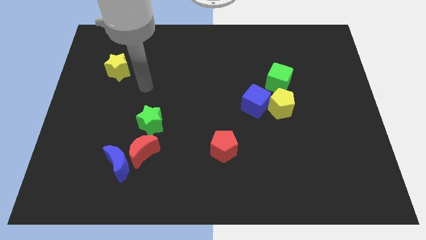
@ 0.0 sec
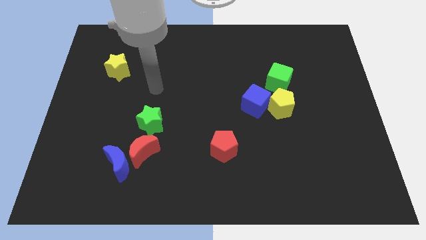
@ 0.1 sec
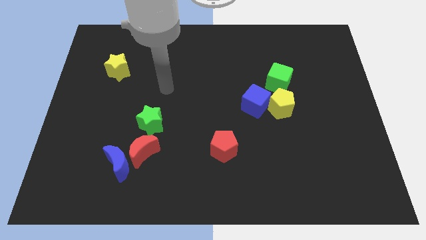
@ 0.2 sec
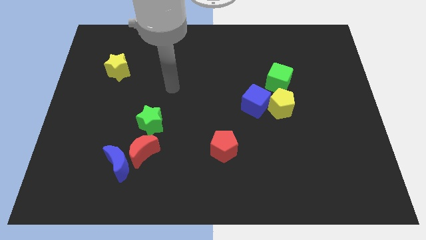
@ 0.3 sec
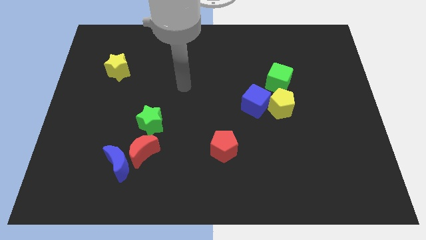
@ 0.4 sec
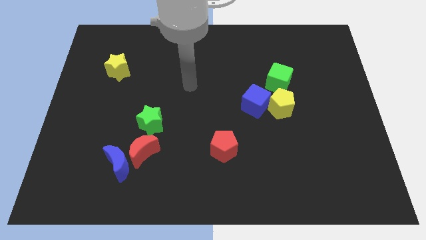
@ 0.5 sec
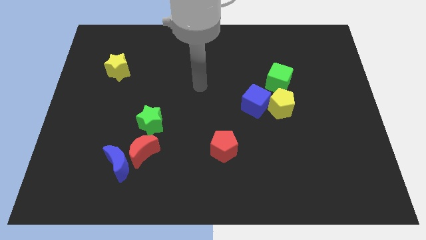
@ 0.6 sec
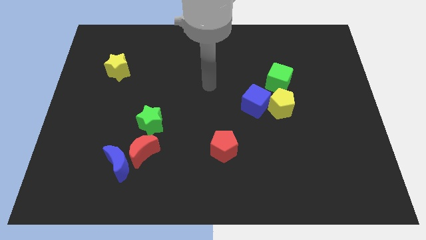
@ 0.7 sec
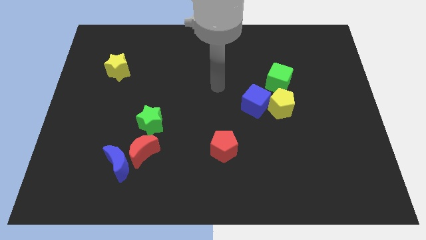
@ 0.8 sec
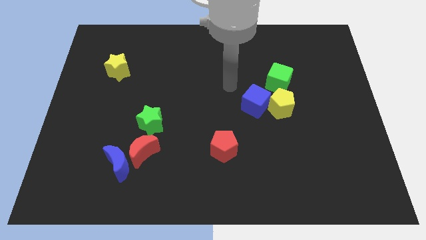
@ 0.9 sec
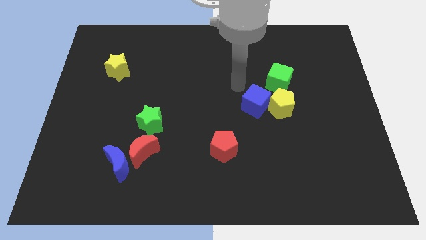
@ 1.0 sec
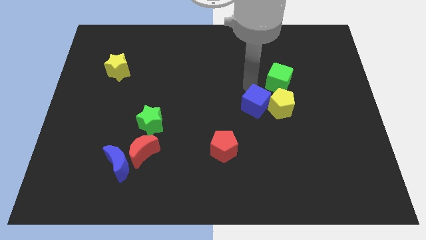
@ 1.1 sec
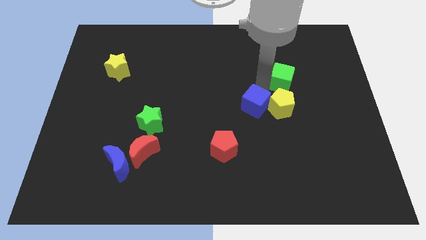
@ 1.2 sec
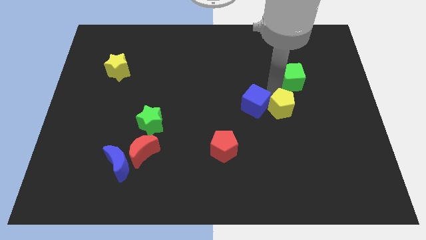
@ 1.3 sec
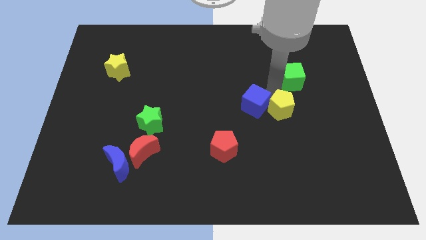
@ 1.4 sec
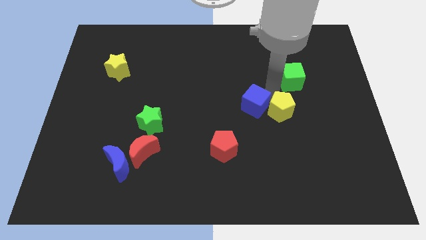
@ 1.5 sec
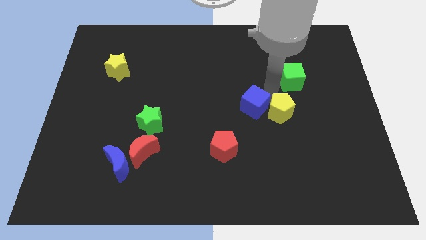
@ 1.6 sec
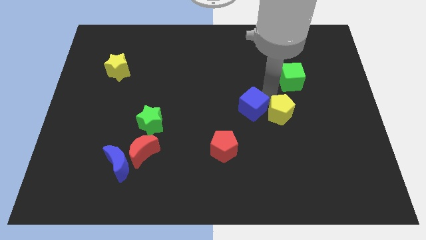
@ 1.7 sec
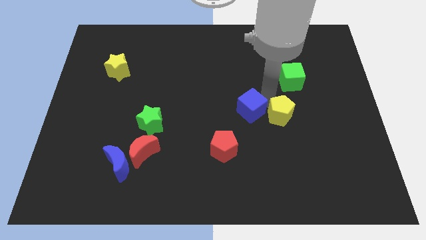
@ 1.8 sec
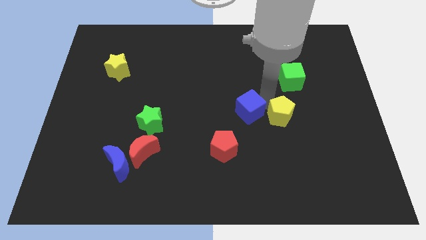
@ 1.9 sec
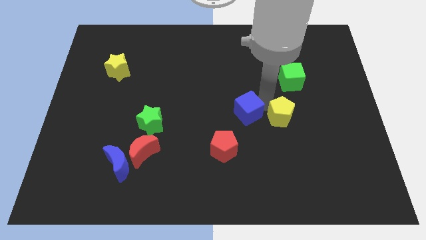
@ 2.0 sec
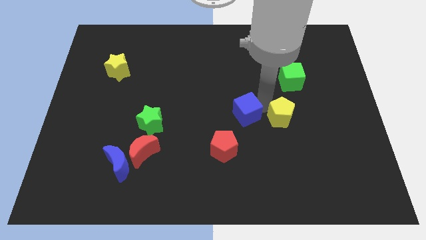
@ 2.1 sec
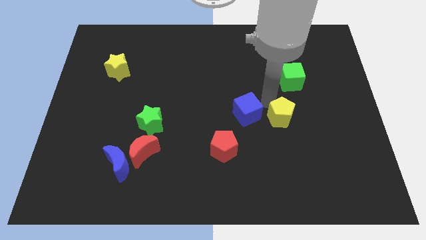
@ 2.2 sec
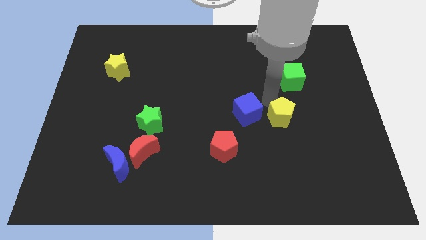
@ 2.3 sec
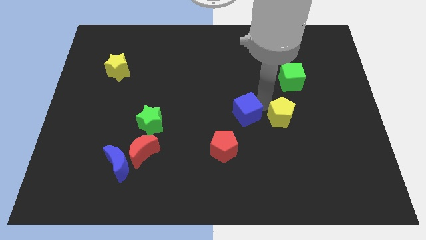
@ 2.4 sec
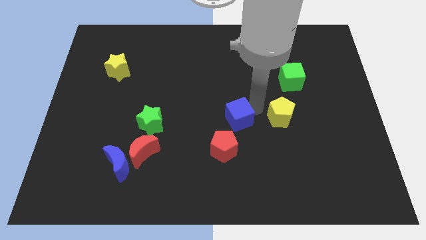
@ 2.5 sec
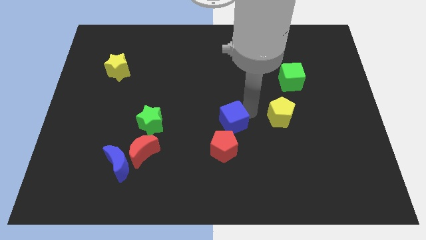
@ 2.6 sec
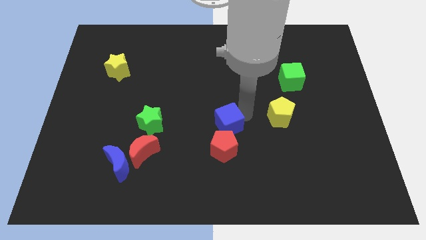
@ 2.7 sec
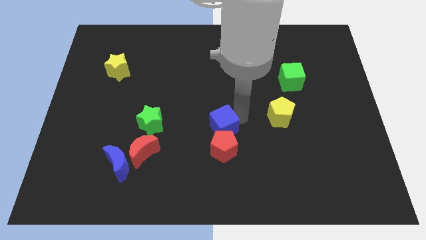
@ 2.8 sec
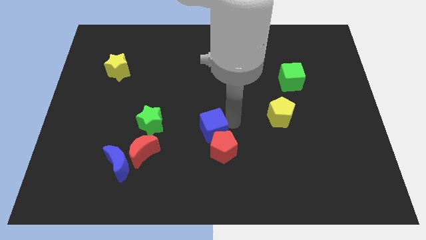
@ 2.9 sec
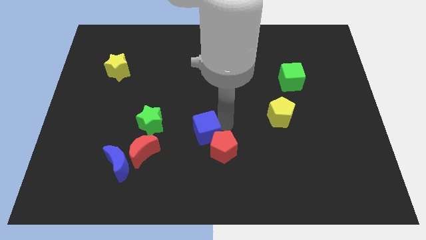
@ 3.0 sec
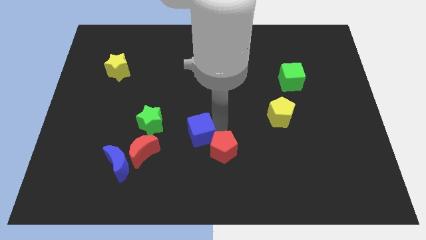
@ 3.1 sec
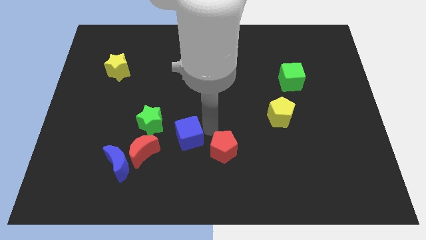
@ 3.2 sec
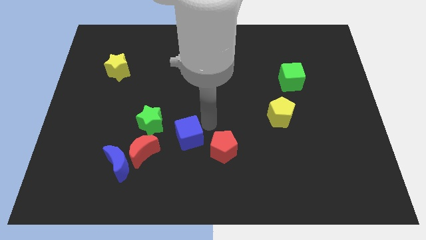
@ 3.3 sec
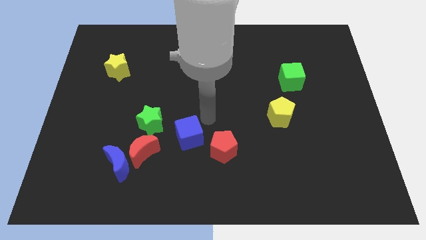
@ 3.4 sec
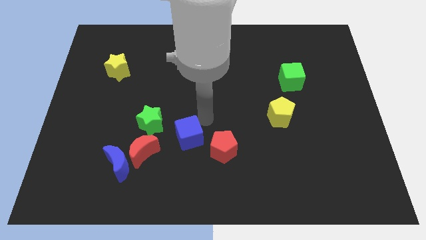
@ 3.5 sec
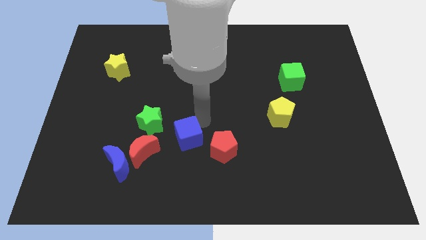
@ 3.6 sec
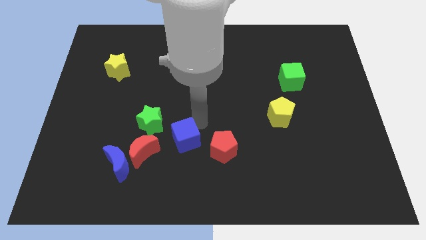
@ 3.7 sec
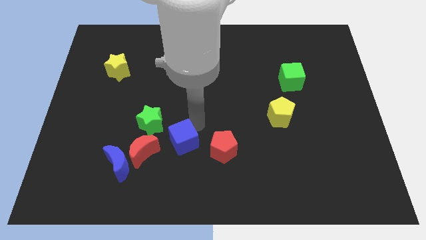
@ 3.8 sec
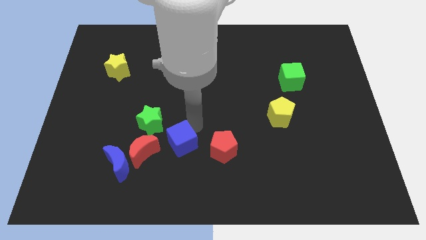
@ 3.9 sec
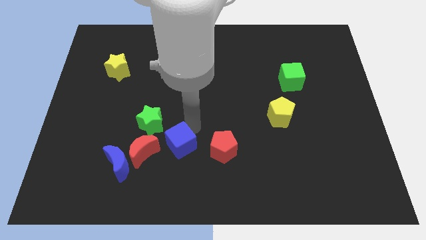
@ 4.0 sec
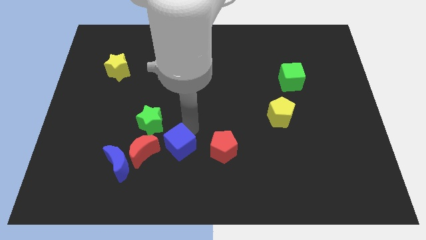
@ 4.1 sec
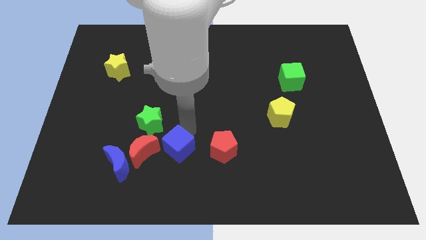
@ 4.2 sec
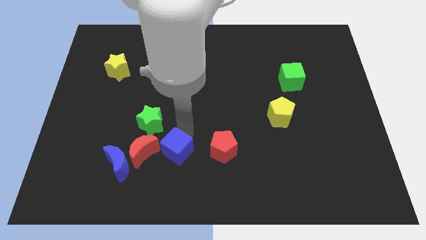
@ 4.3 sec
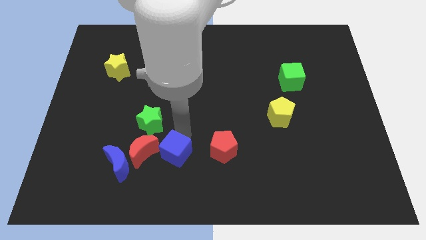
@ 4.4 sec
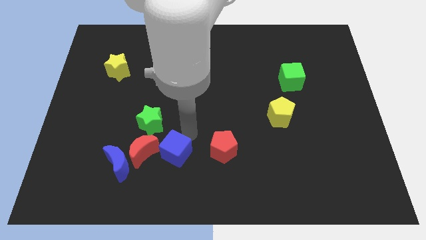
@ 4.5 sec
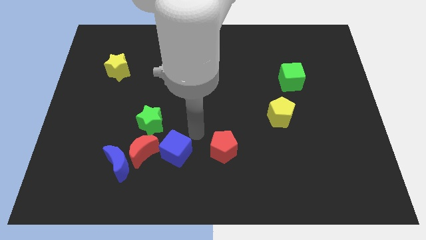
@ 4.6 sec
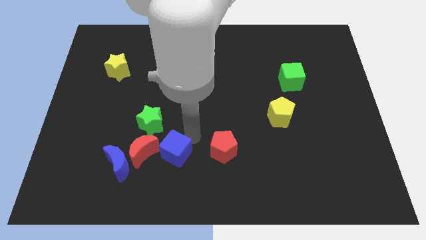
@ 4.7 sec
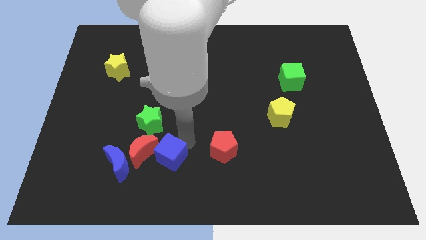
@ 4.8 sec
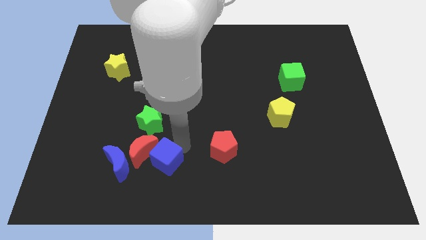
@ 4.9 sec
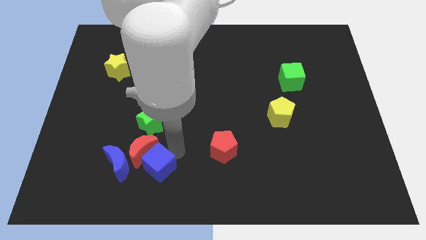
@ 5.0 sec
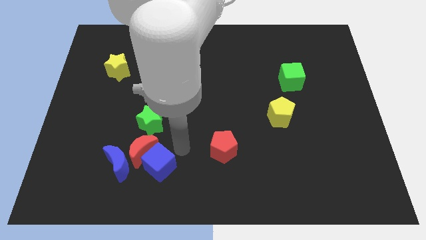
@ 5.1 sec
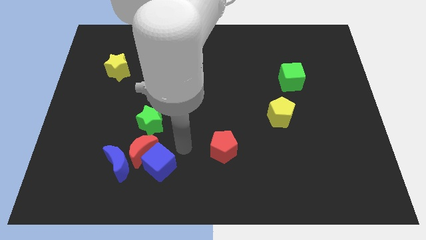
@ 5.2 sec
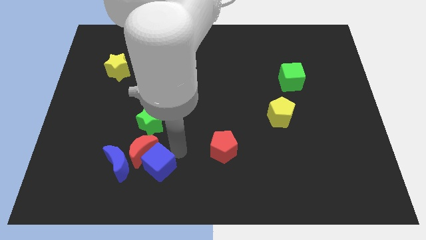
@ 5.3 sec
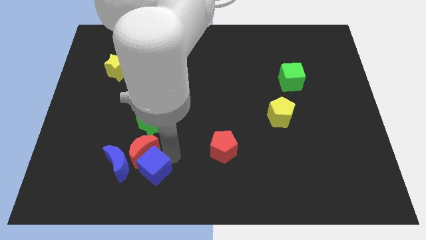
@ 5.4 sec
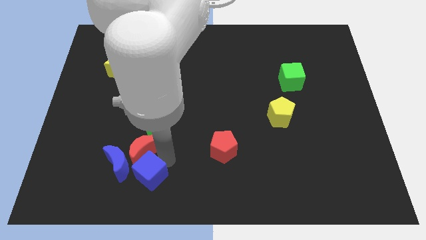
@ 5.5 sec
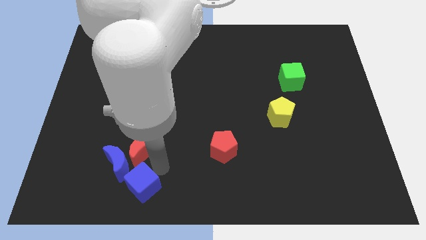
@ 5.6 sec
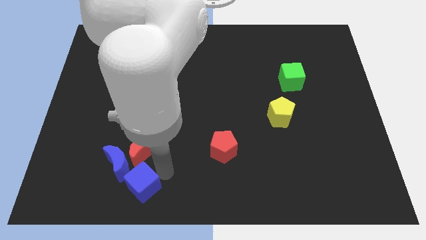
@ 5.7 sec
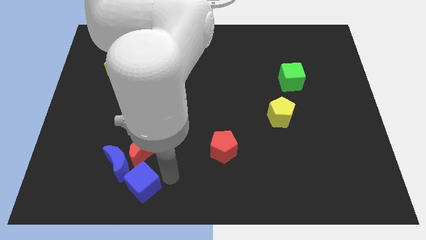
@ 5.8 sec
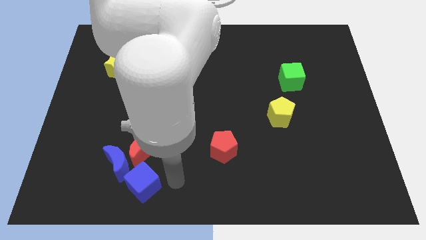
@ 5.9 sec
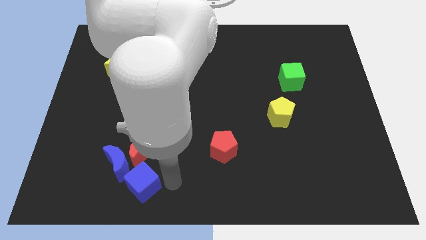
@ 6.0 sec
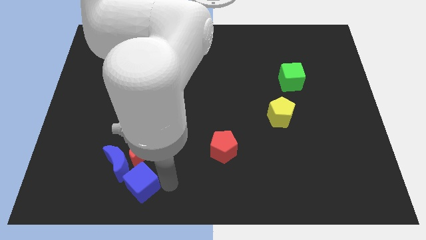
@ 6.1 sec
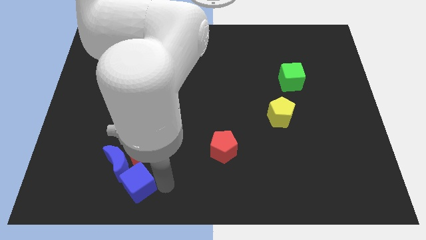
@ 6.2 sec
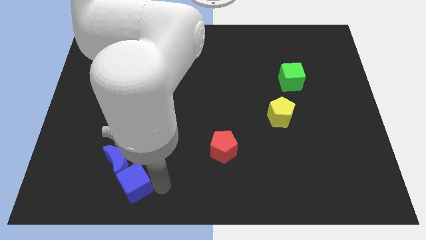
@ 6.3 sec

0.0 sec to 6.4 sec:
put the blue cube to the bottom left side of the red moon
